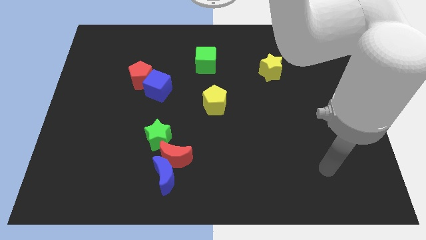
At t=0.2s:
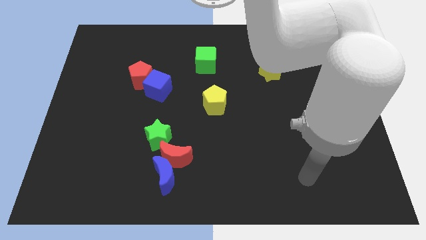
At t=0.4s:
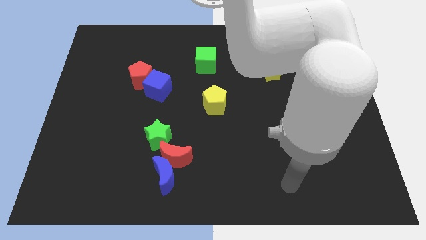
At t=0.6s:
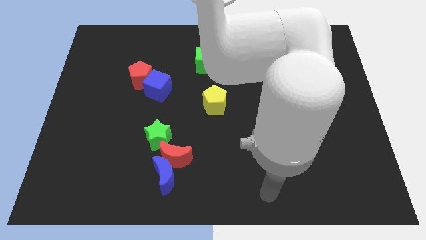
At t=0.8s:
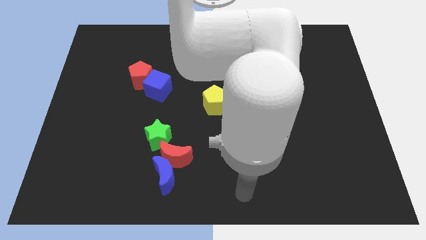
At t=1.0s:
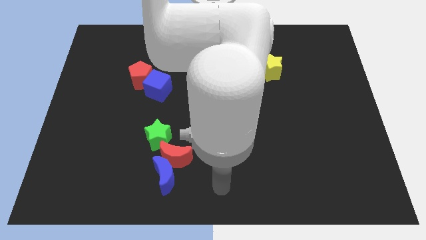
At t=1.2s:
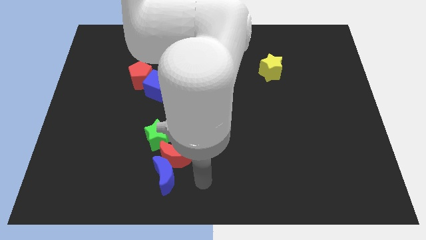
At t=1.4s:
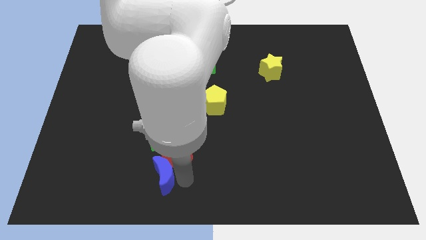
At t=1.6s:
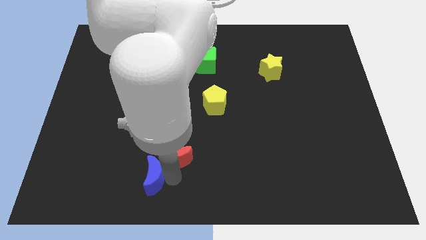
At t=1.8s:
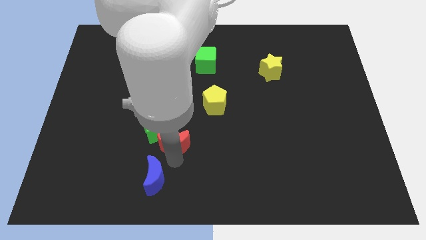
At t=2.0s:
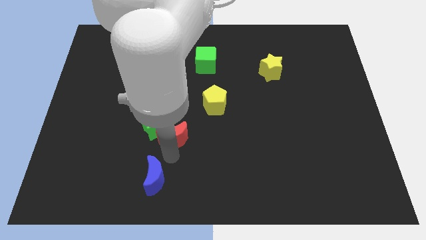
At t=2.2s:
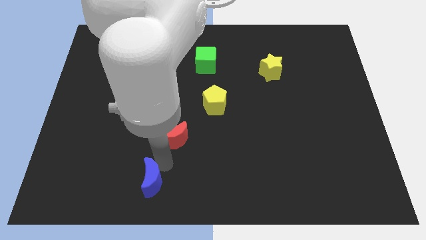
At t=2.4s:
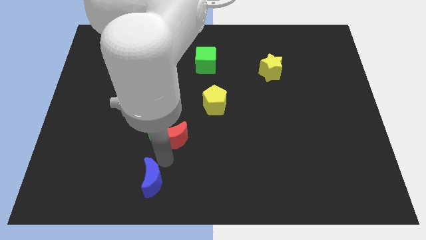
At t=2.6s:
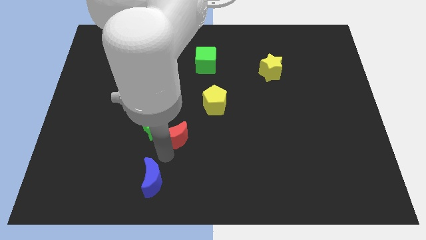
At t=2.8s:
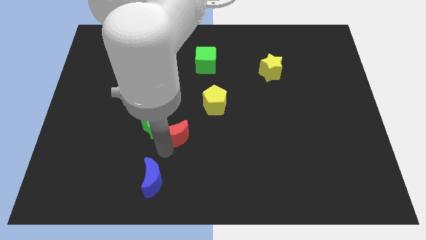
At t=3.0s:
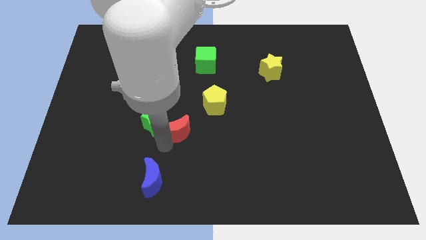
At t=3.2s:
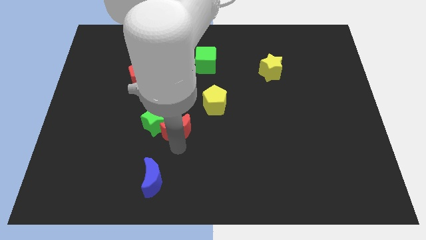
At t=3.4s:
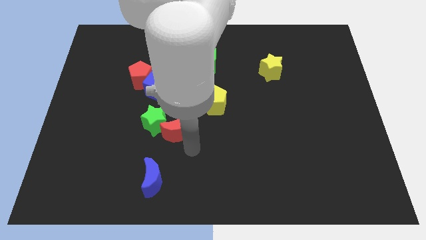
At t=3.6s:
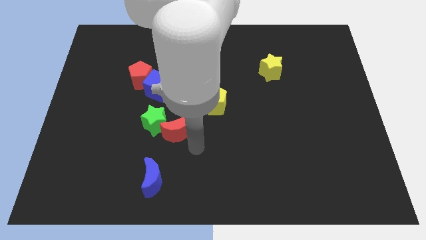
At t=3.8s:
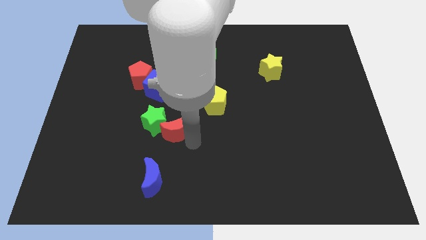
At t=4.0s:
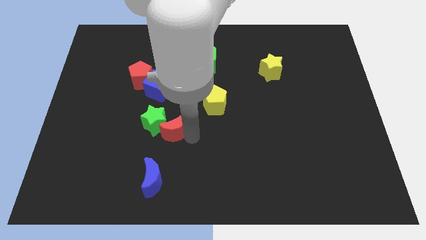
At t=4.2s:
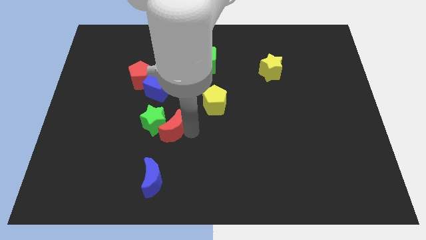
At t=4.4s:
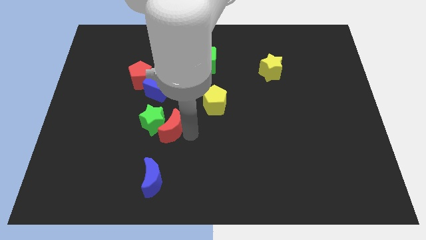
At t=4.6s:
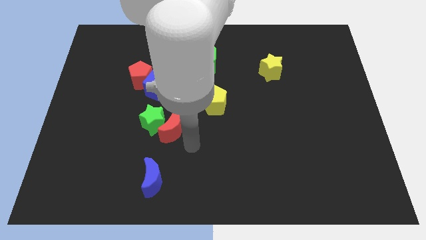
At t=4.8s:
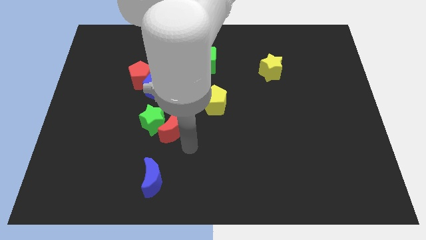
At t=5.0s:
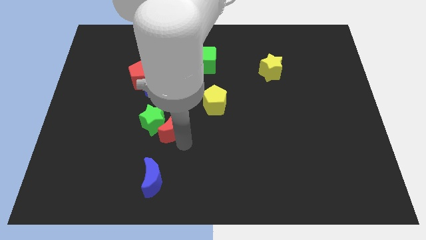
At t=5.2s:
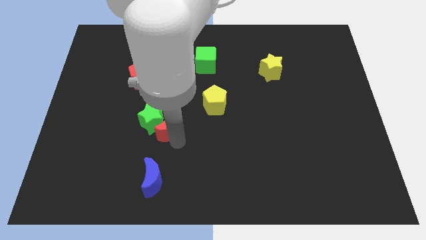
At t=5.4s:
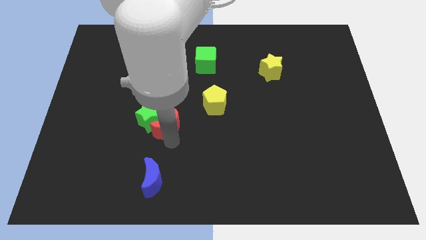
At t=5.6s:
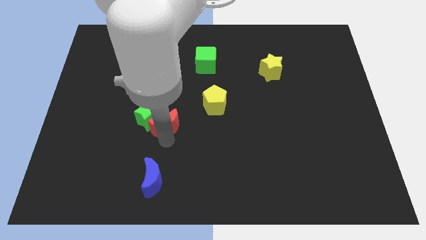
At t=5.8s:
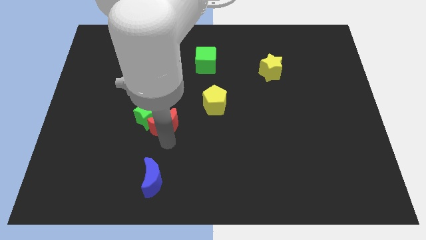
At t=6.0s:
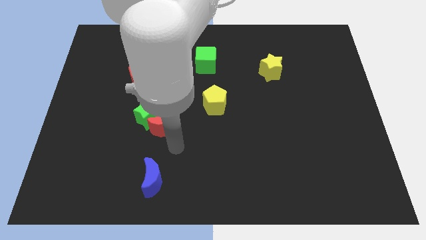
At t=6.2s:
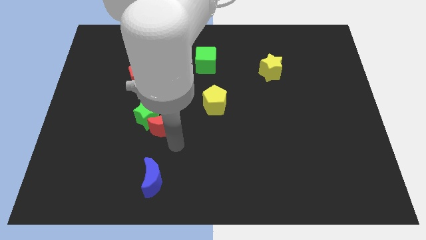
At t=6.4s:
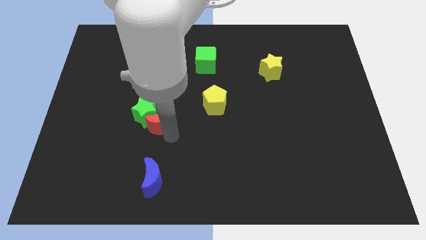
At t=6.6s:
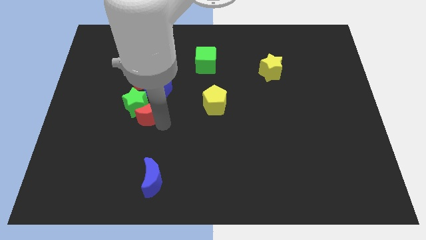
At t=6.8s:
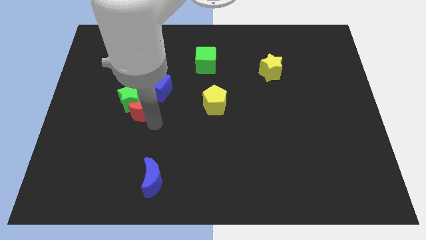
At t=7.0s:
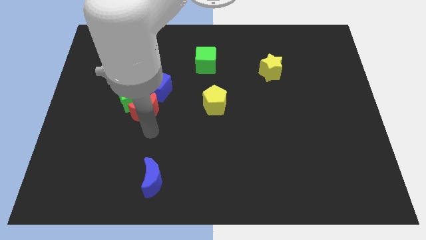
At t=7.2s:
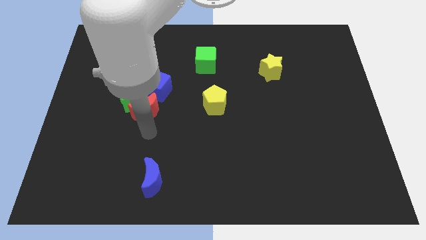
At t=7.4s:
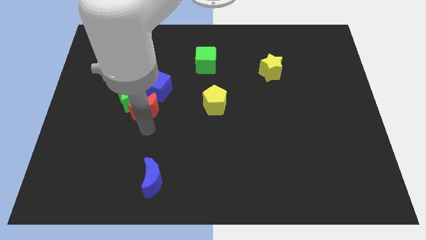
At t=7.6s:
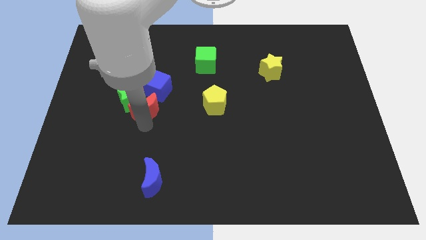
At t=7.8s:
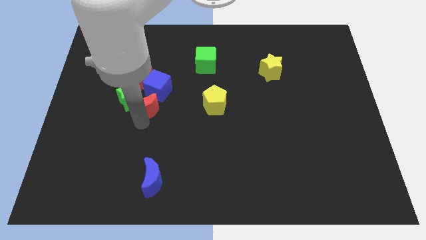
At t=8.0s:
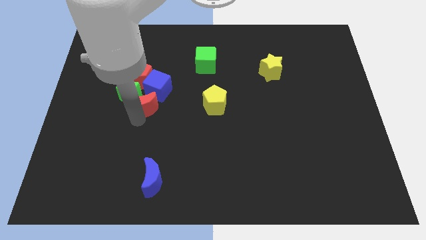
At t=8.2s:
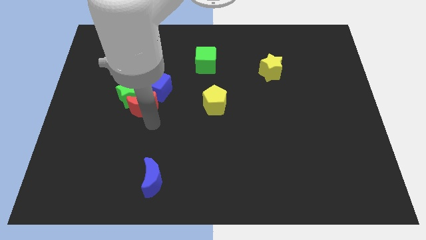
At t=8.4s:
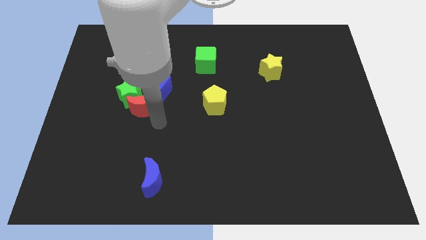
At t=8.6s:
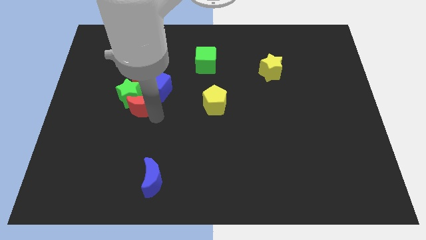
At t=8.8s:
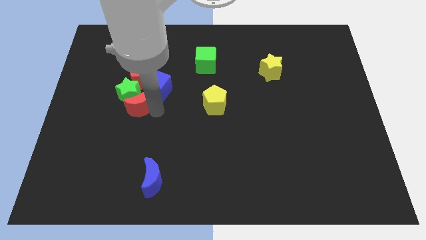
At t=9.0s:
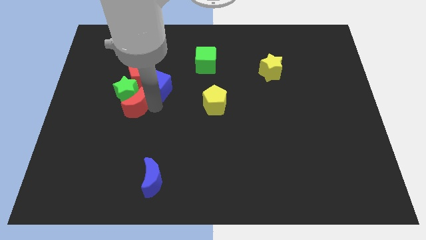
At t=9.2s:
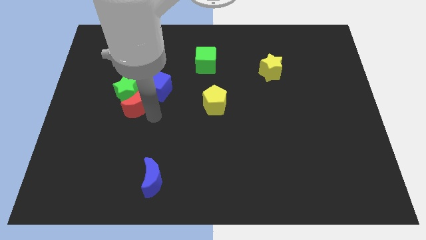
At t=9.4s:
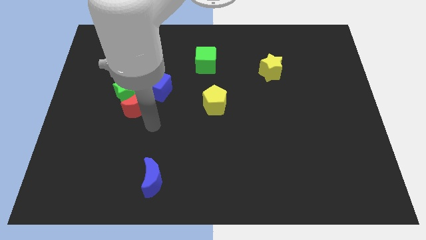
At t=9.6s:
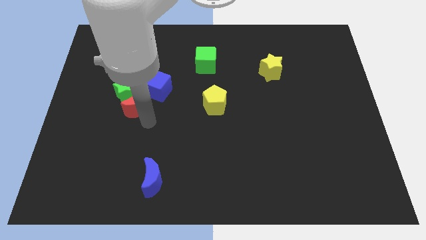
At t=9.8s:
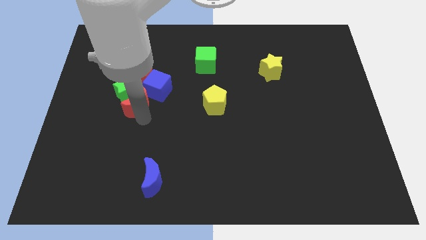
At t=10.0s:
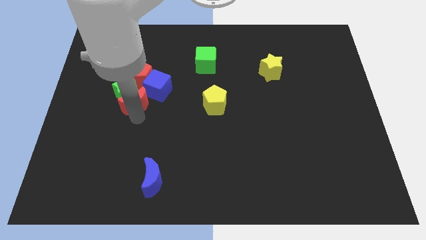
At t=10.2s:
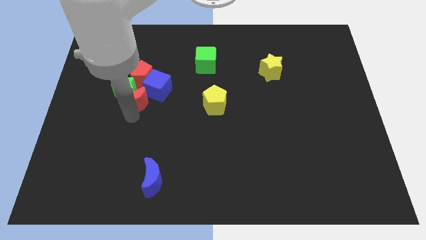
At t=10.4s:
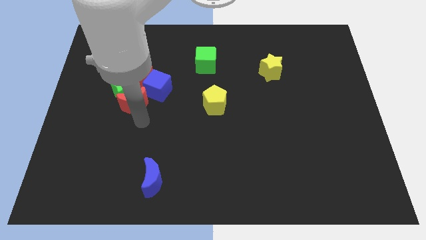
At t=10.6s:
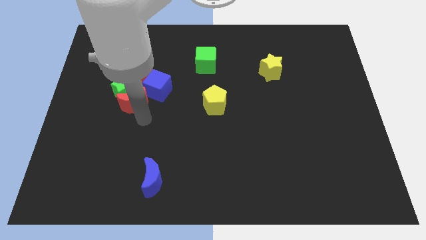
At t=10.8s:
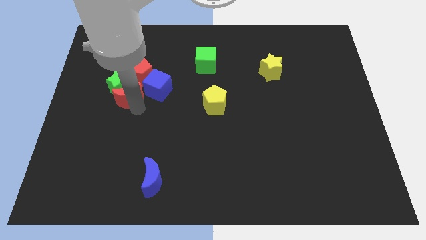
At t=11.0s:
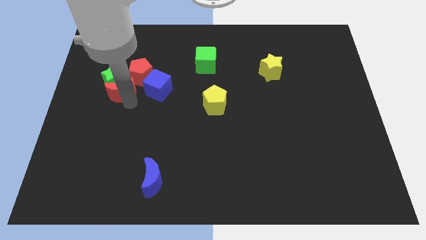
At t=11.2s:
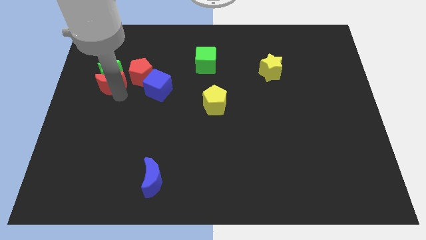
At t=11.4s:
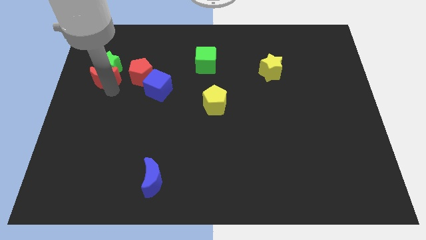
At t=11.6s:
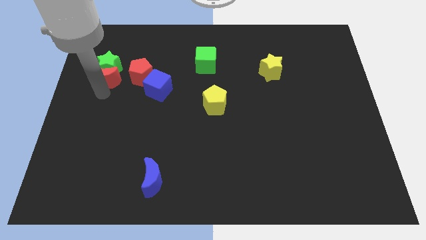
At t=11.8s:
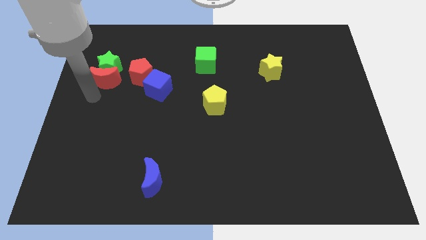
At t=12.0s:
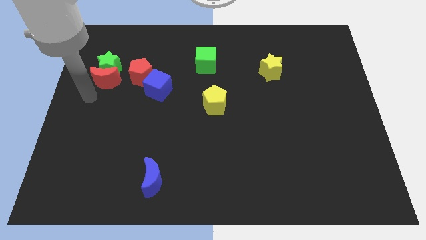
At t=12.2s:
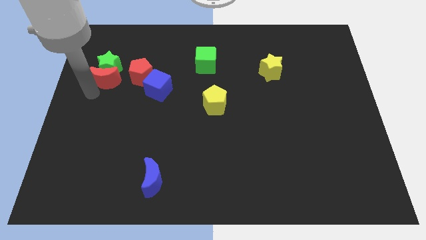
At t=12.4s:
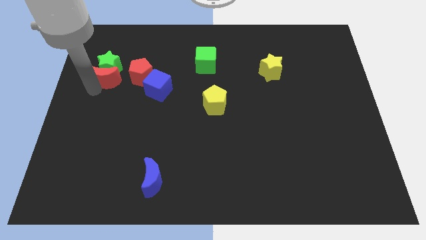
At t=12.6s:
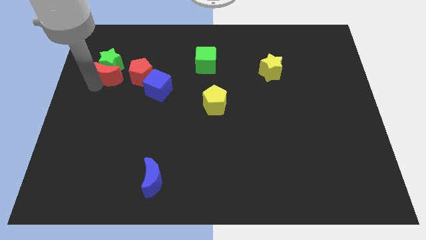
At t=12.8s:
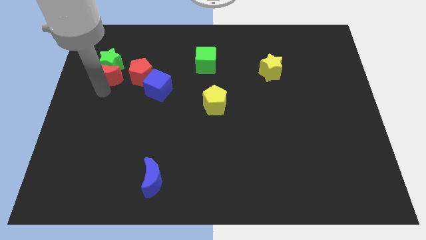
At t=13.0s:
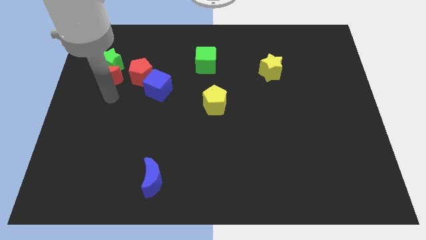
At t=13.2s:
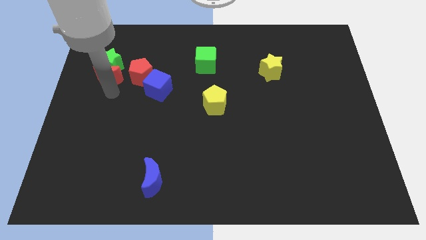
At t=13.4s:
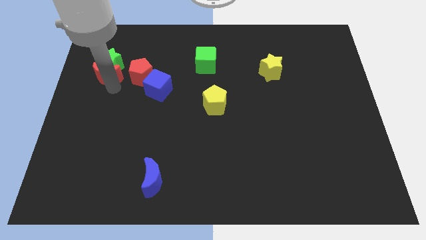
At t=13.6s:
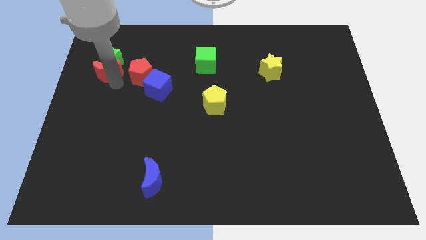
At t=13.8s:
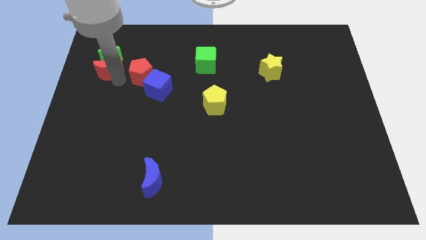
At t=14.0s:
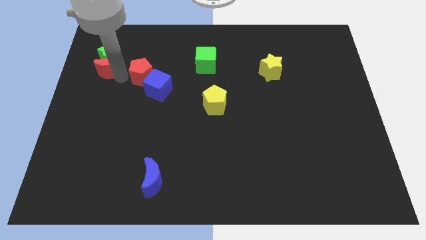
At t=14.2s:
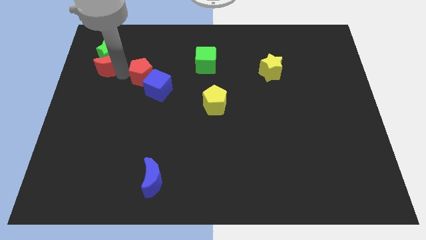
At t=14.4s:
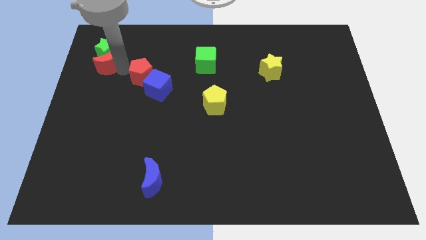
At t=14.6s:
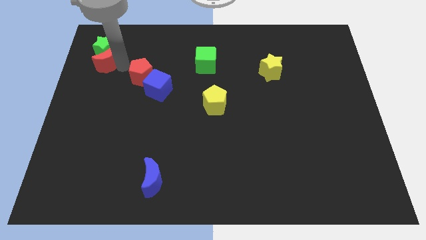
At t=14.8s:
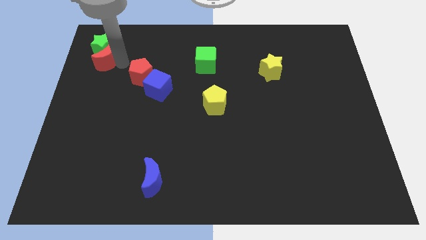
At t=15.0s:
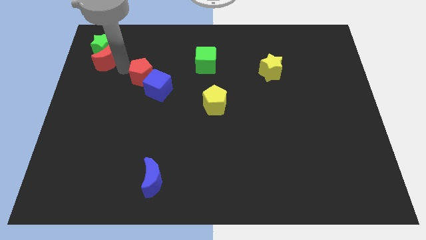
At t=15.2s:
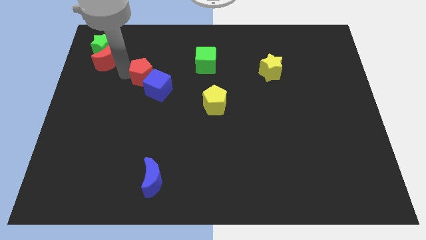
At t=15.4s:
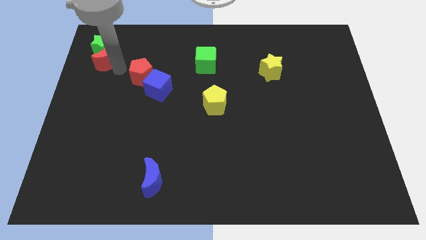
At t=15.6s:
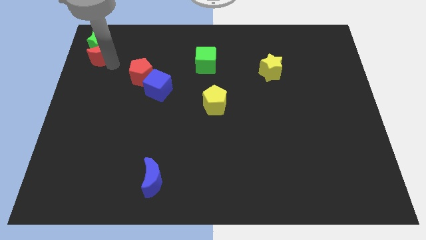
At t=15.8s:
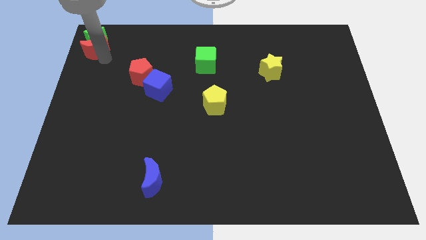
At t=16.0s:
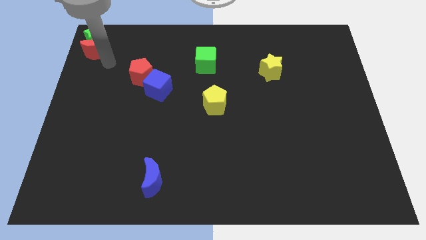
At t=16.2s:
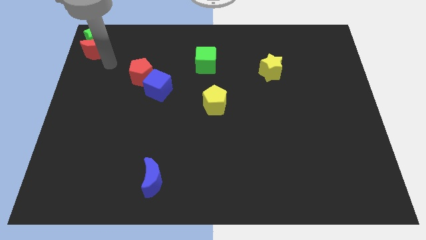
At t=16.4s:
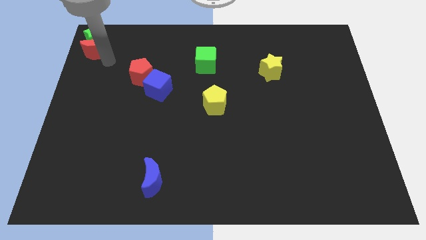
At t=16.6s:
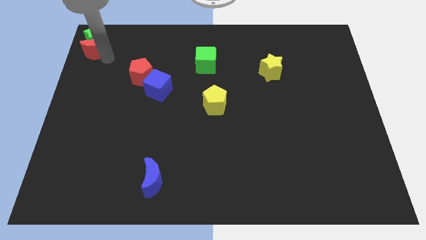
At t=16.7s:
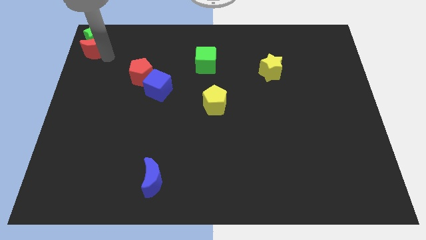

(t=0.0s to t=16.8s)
slide the red moon to the top left corner
